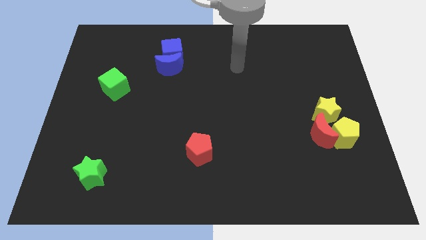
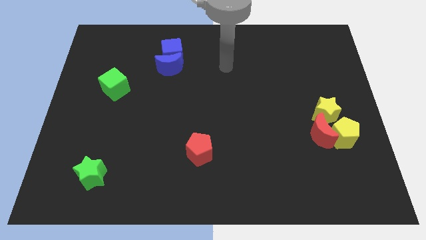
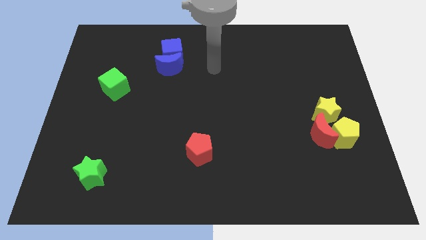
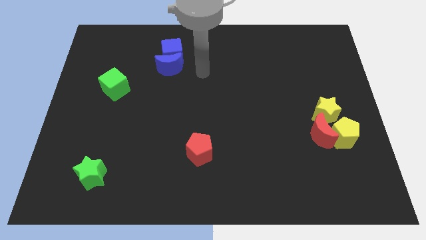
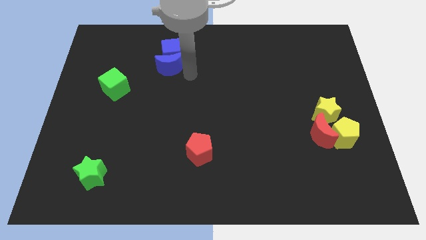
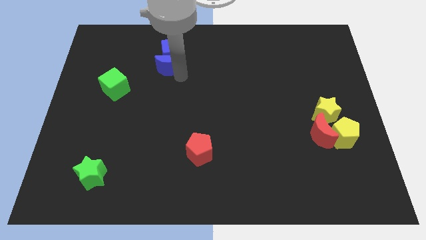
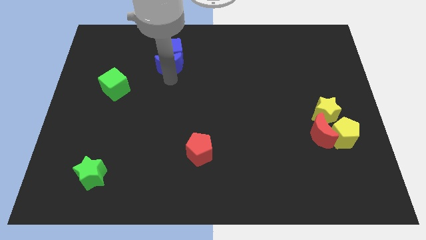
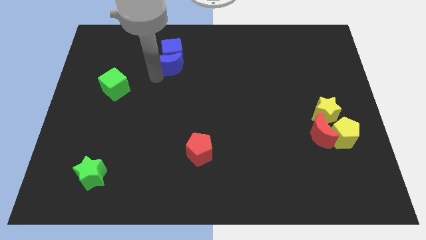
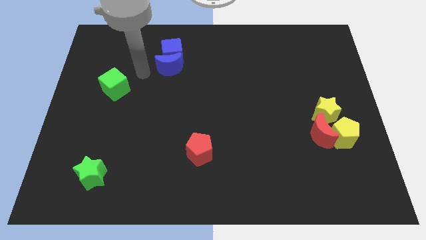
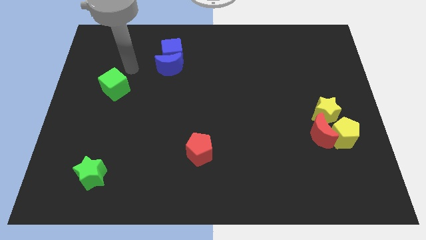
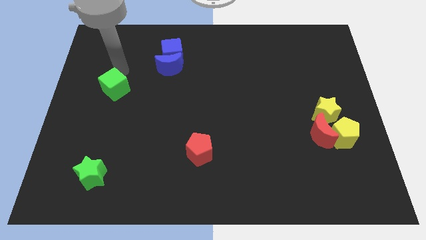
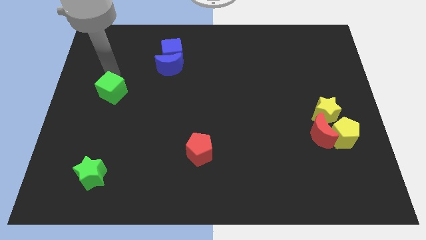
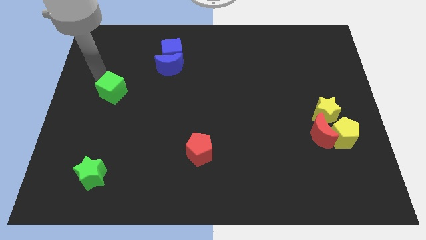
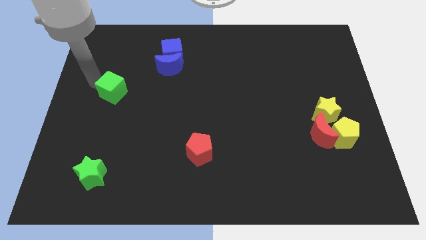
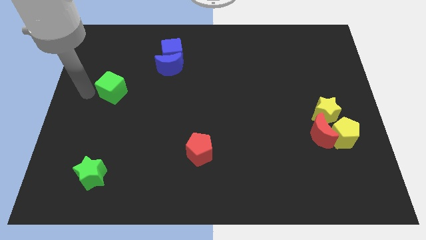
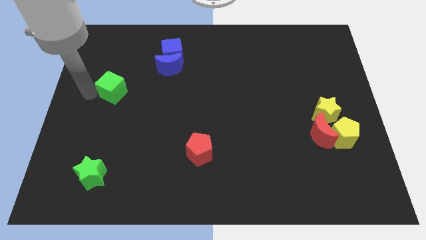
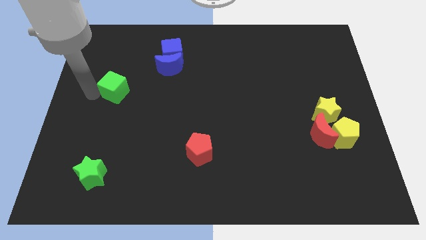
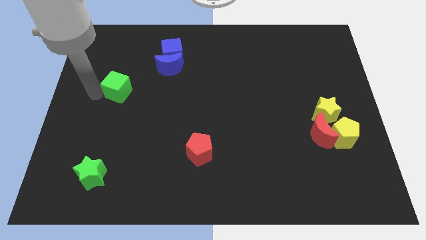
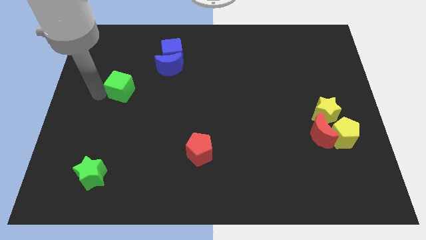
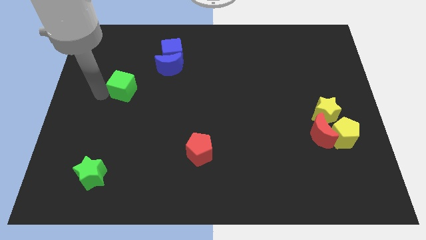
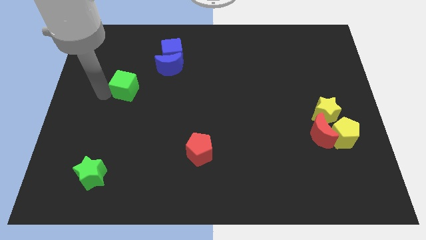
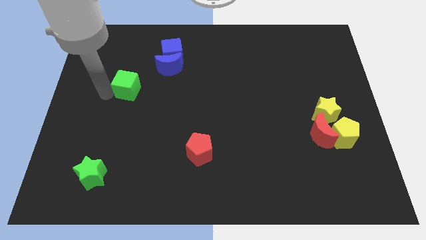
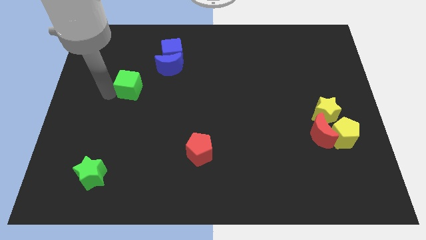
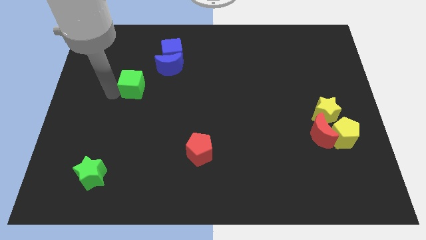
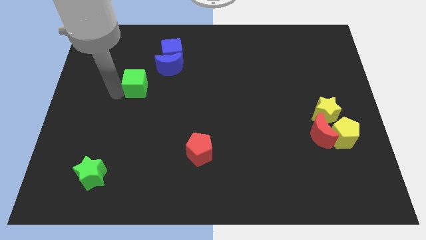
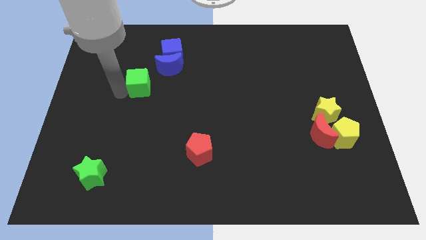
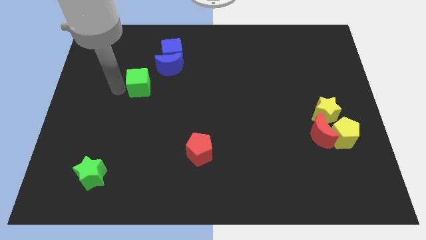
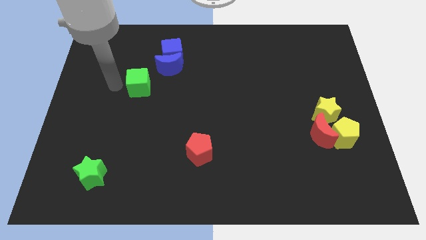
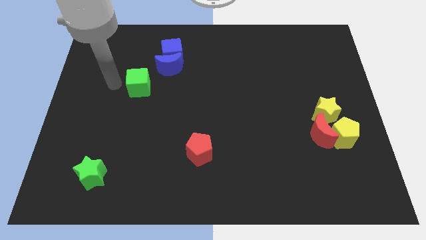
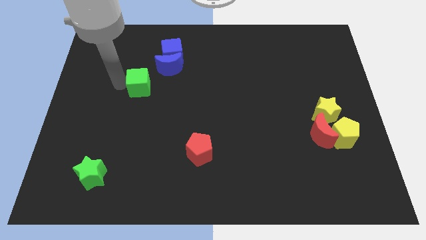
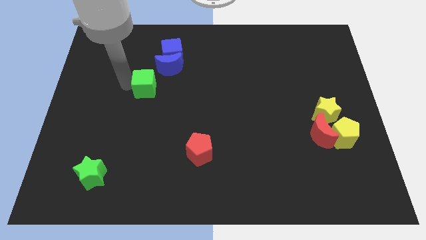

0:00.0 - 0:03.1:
move the green cube a little to the right

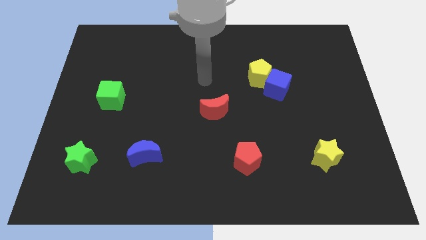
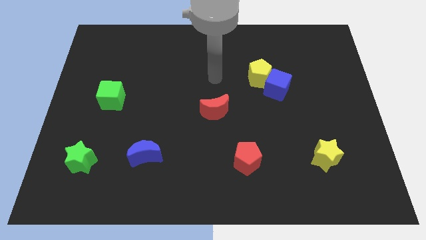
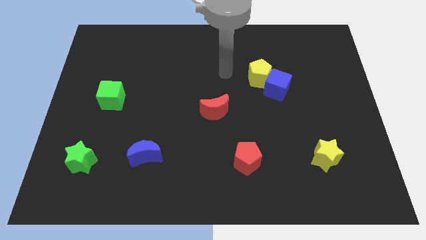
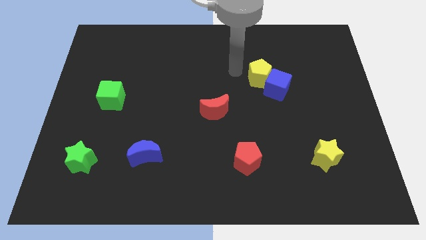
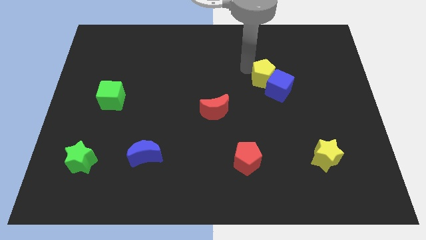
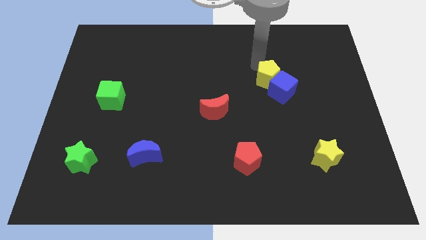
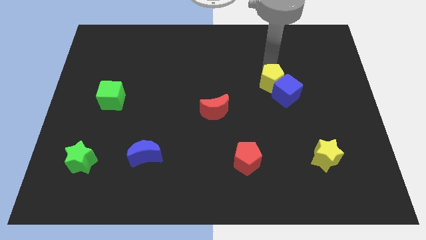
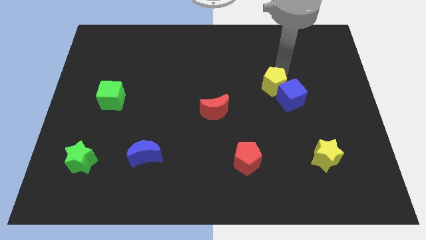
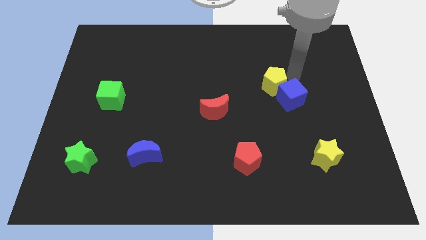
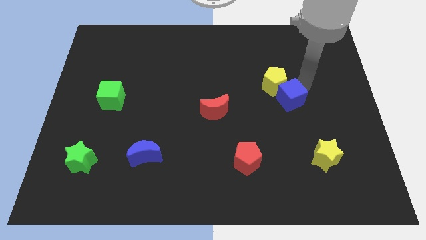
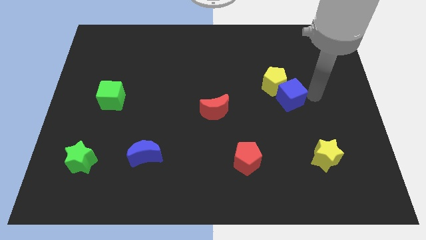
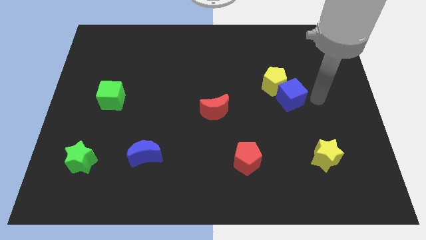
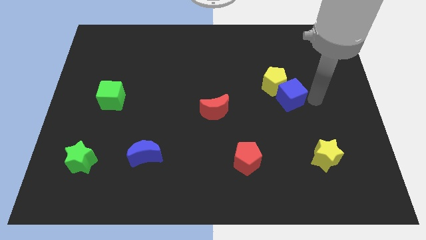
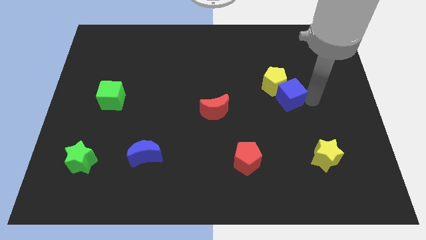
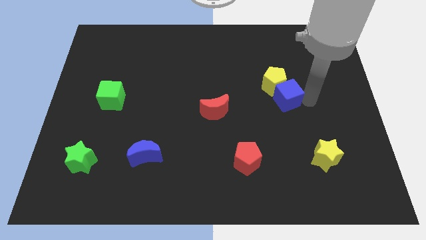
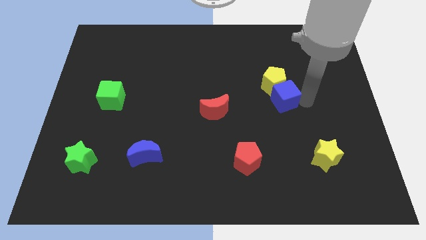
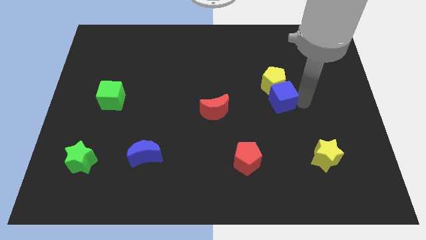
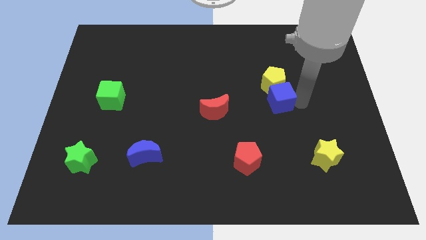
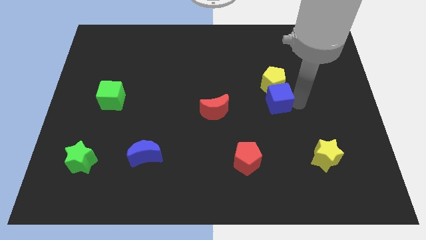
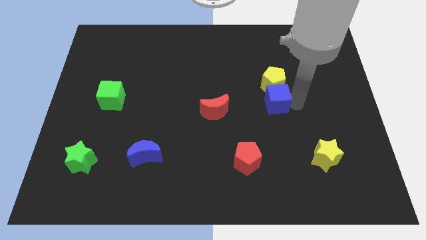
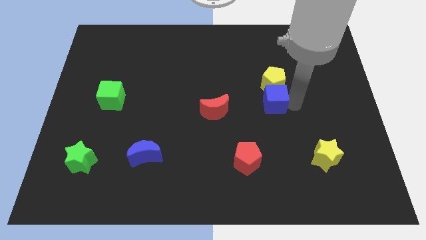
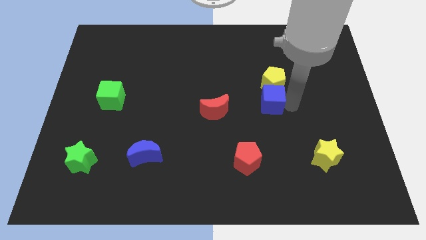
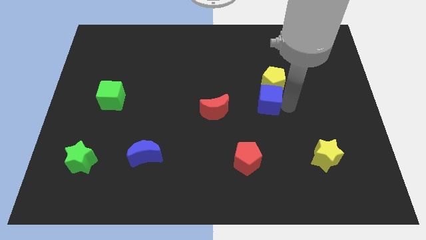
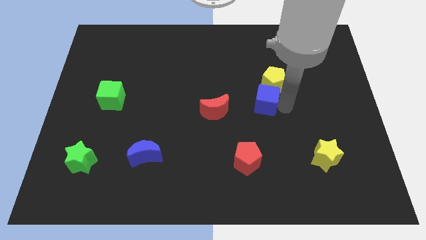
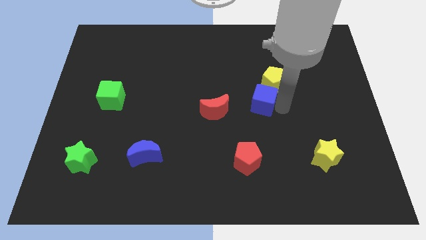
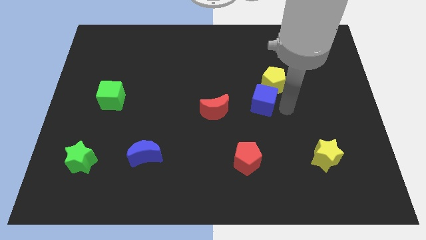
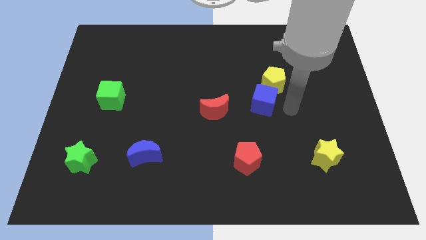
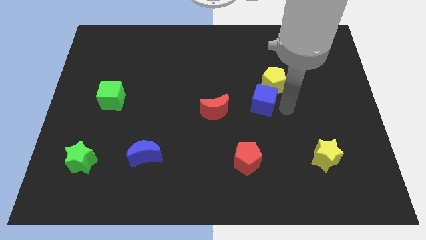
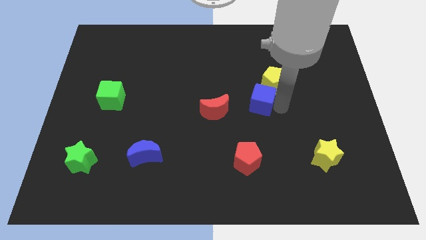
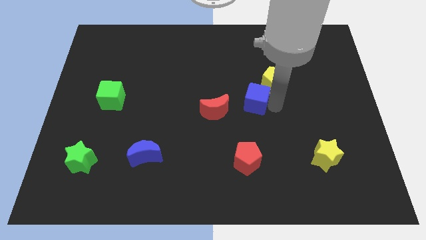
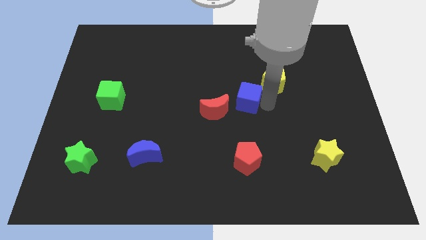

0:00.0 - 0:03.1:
push the blue cube a little bit left

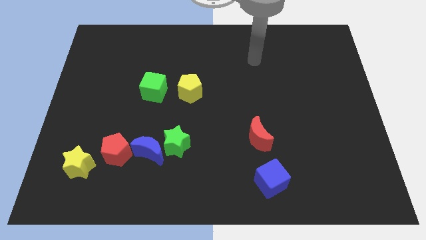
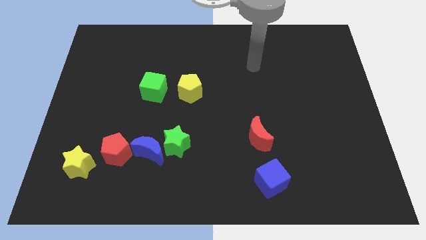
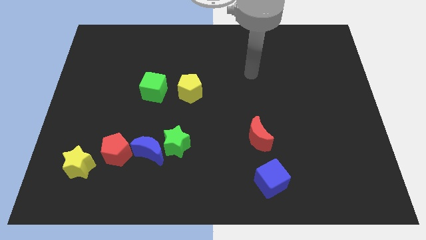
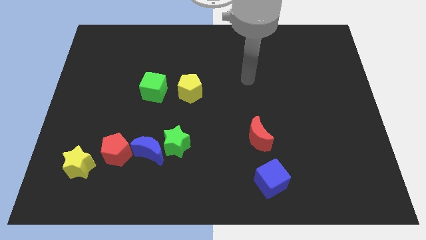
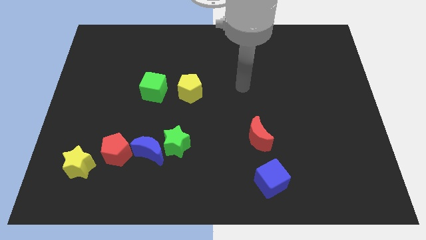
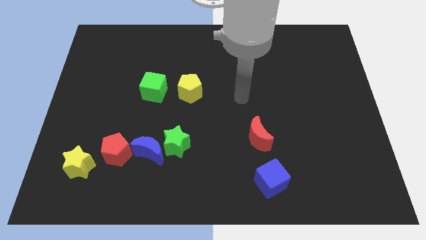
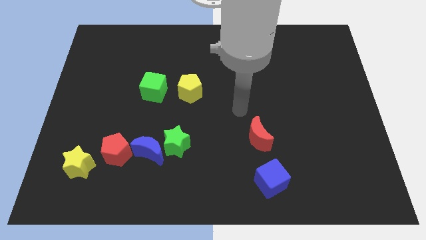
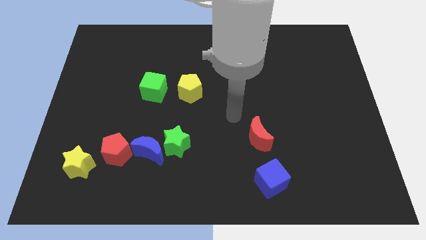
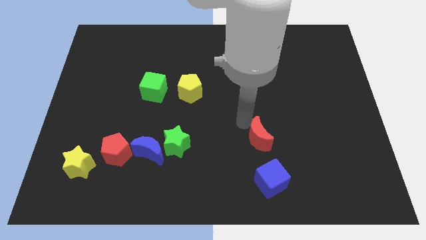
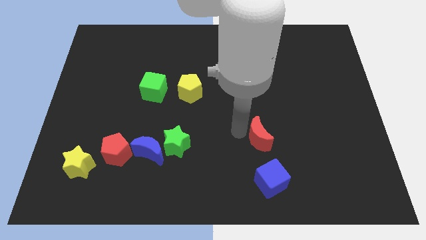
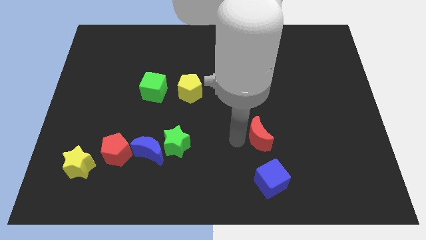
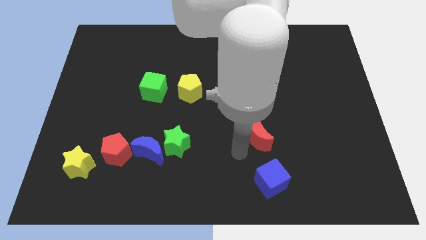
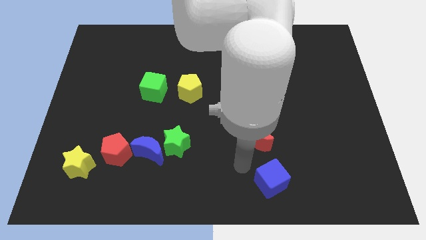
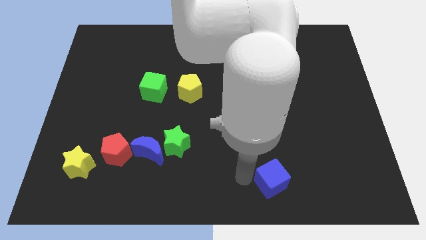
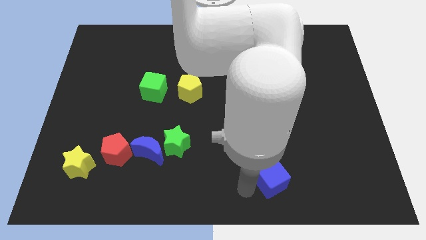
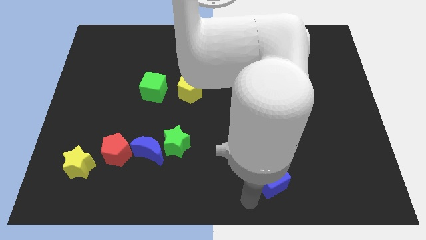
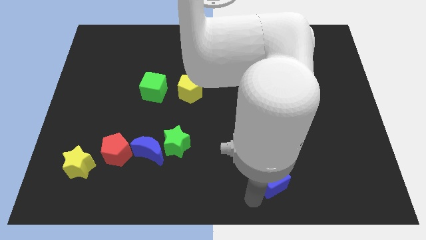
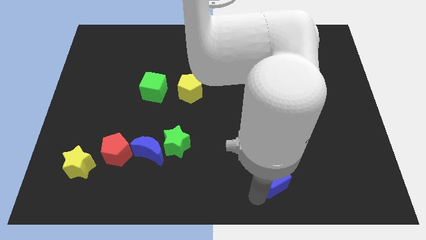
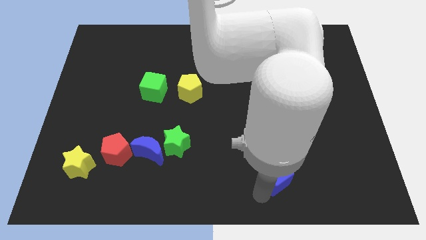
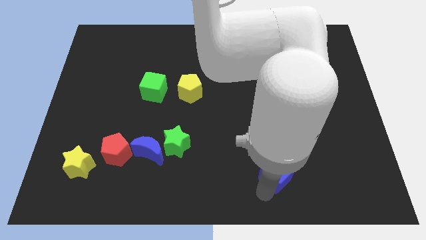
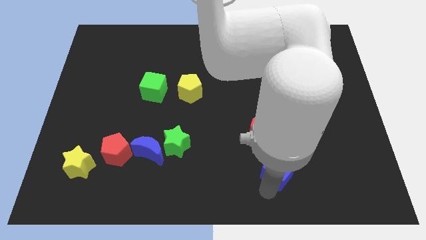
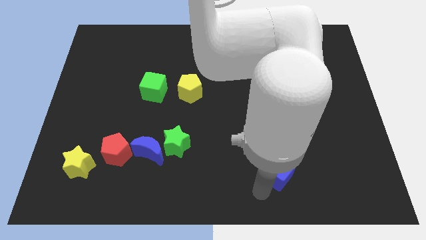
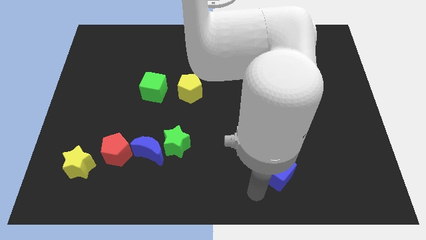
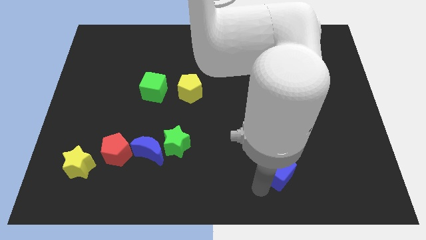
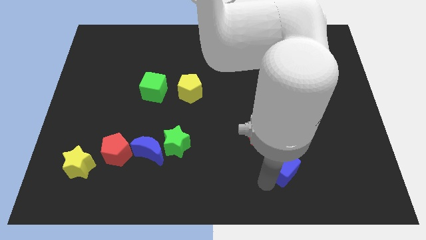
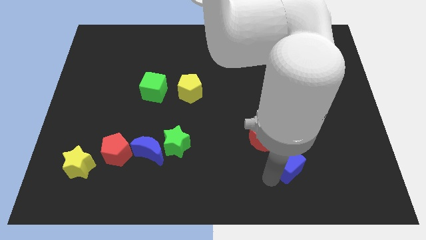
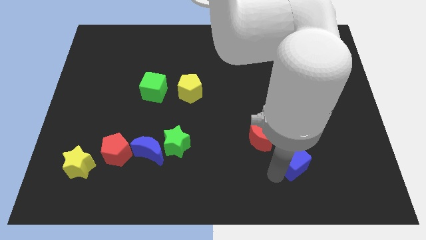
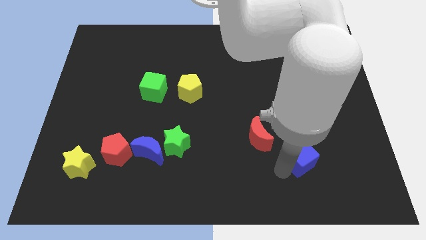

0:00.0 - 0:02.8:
slightly push the blue cube up and right diagonally
